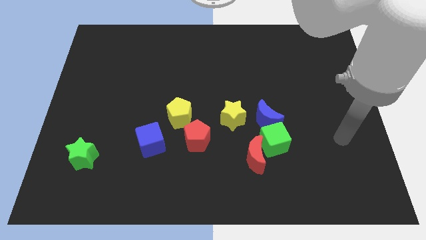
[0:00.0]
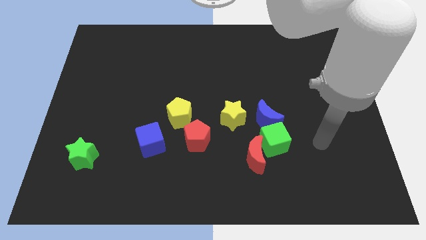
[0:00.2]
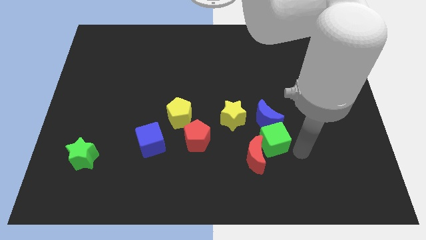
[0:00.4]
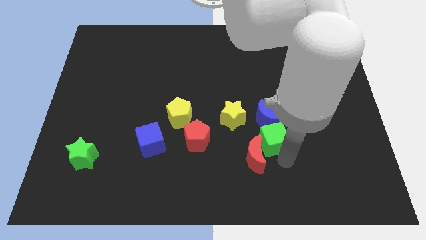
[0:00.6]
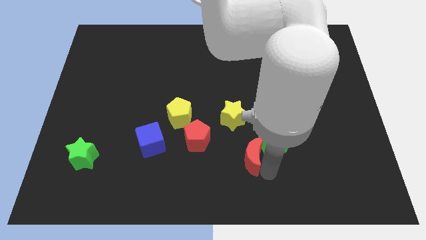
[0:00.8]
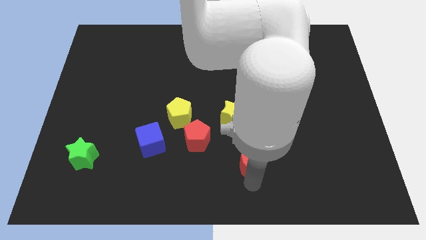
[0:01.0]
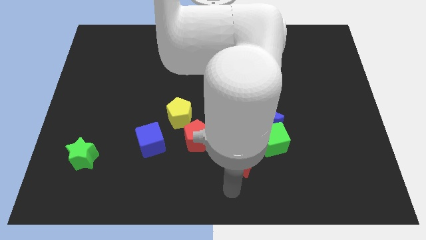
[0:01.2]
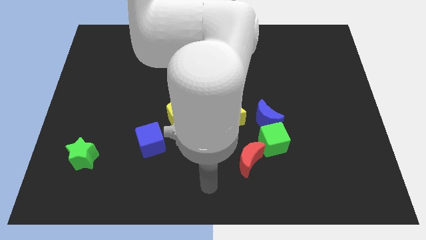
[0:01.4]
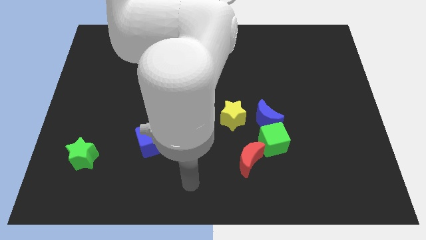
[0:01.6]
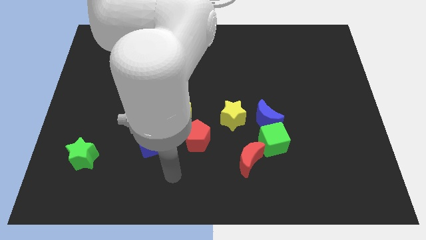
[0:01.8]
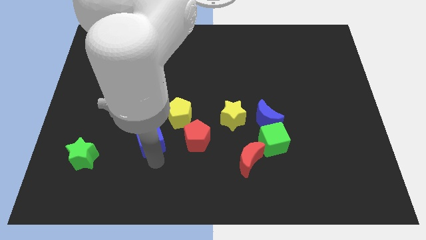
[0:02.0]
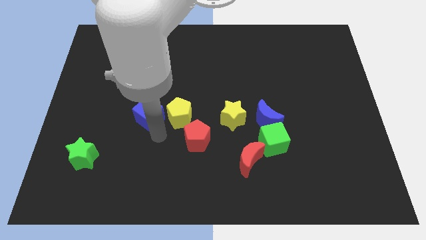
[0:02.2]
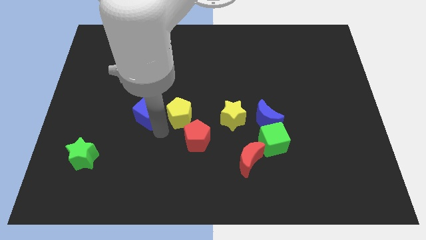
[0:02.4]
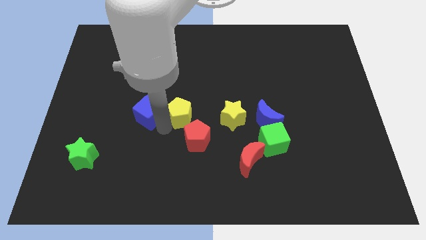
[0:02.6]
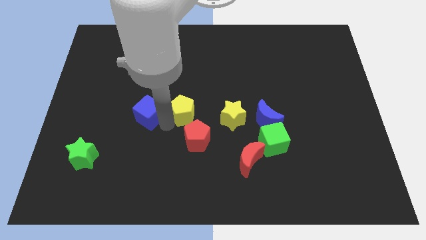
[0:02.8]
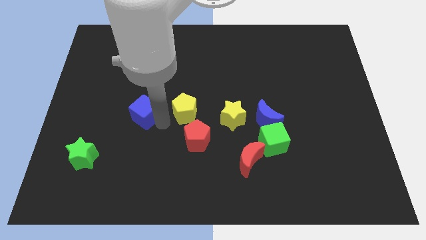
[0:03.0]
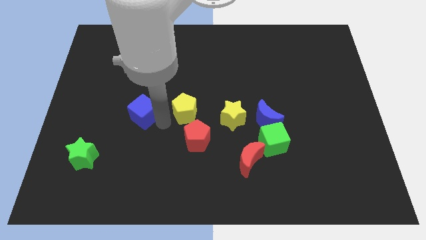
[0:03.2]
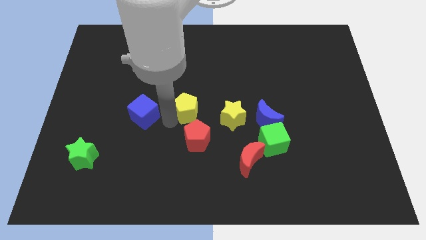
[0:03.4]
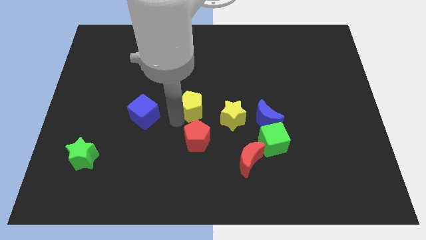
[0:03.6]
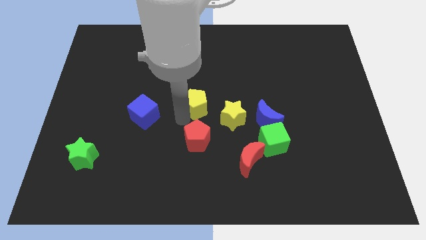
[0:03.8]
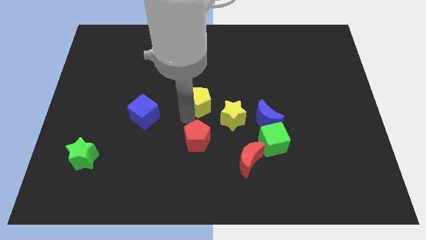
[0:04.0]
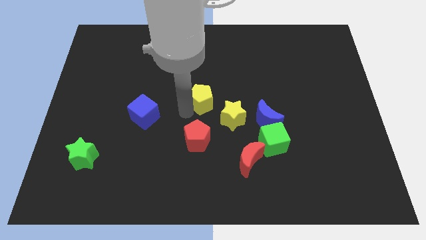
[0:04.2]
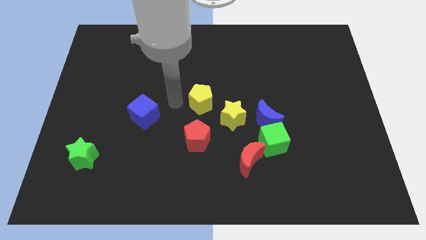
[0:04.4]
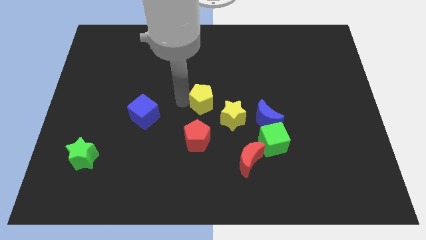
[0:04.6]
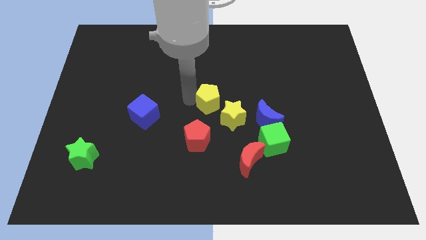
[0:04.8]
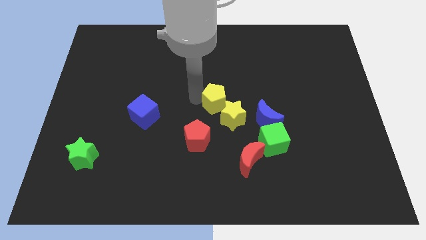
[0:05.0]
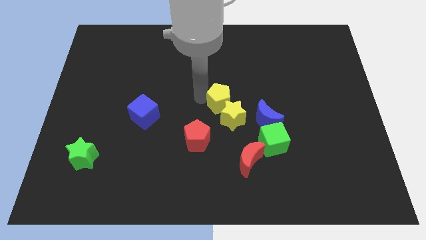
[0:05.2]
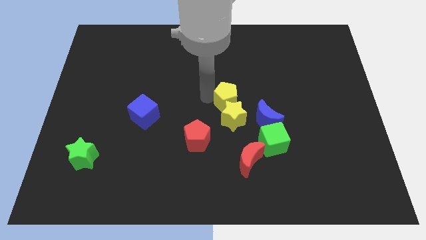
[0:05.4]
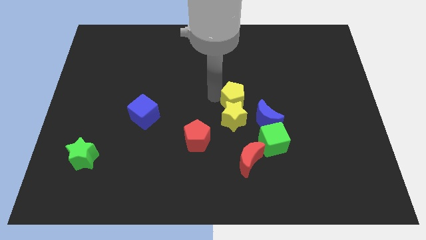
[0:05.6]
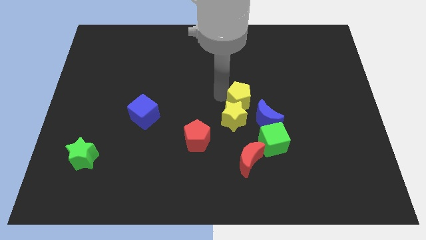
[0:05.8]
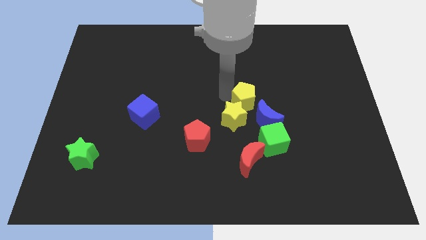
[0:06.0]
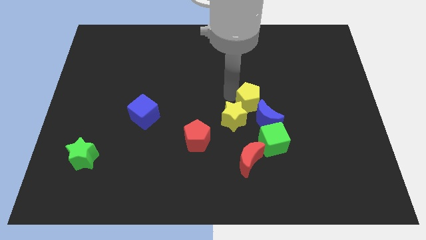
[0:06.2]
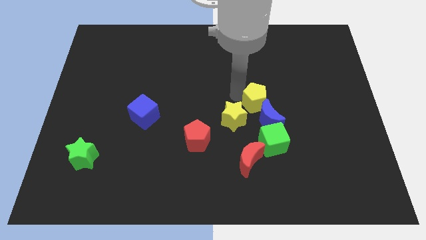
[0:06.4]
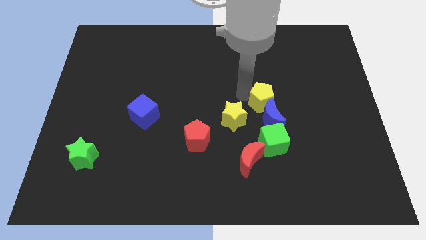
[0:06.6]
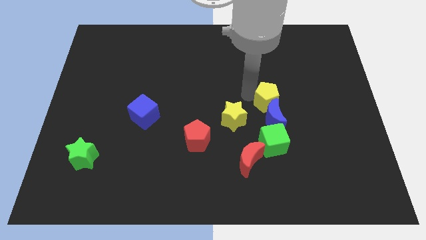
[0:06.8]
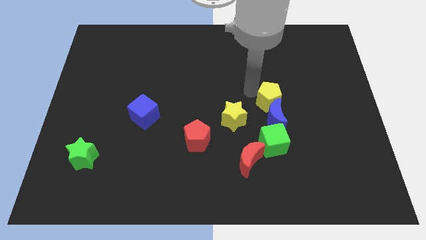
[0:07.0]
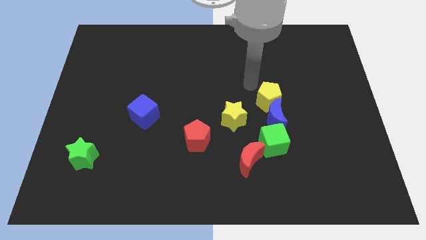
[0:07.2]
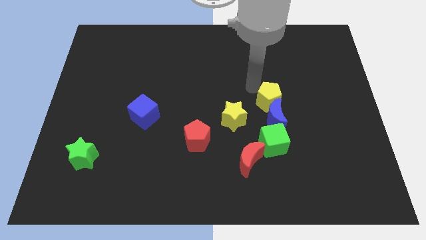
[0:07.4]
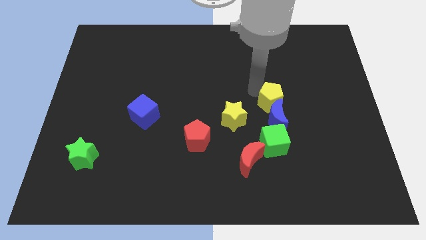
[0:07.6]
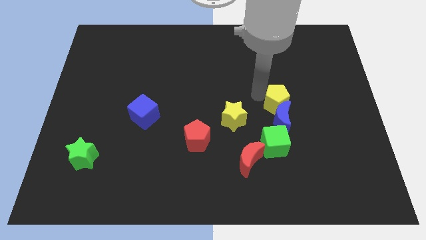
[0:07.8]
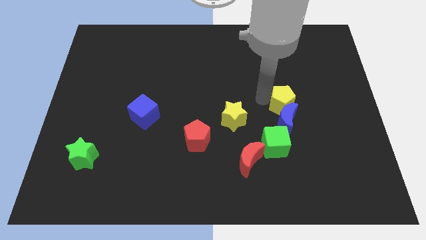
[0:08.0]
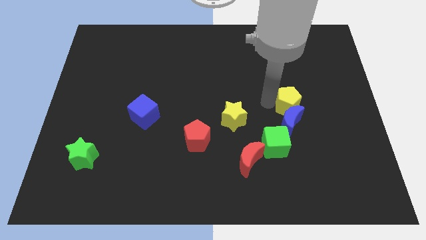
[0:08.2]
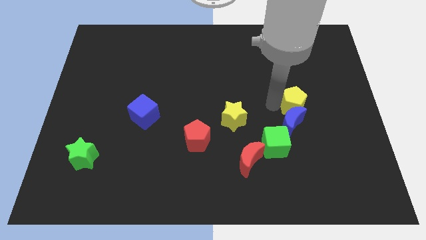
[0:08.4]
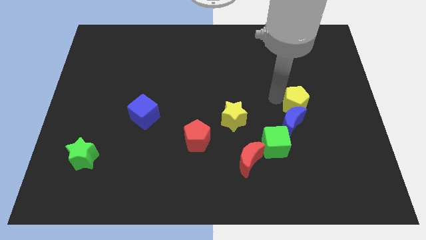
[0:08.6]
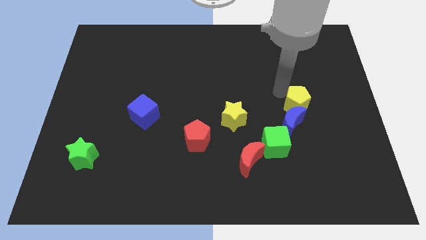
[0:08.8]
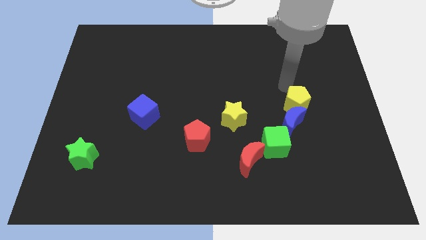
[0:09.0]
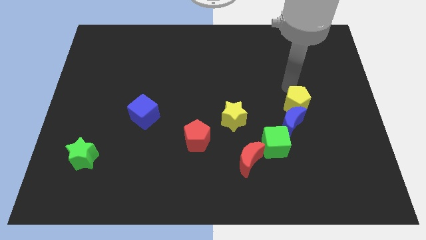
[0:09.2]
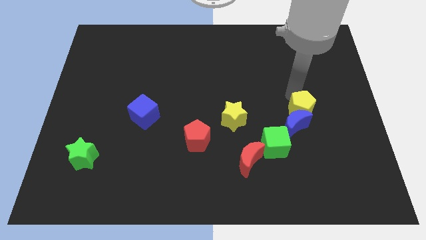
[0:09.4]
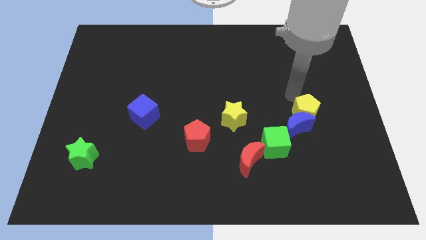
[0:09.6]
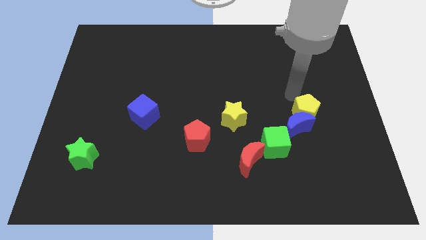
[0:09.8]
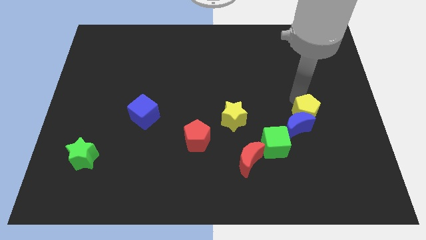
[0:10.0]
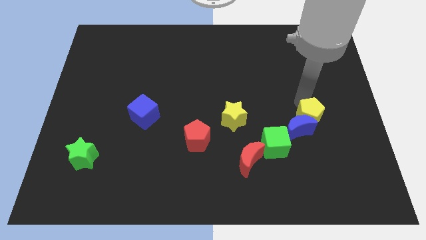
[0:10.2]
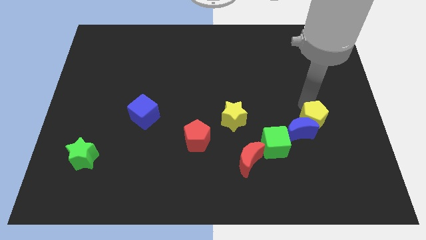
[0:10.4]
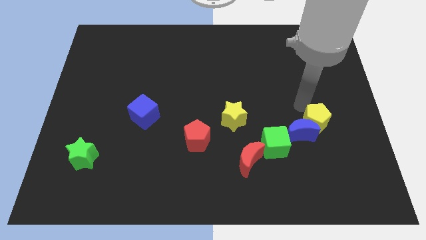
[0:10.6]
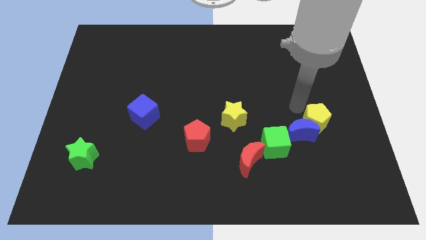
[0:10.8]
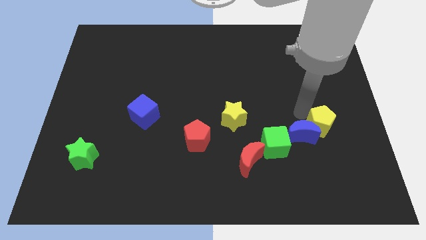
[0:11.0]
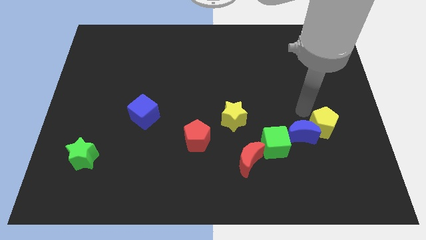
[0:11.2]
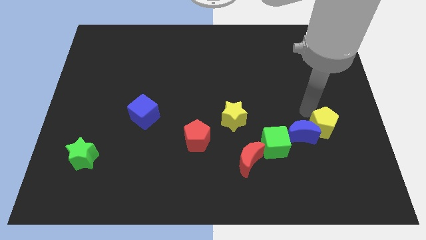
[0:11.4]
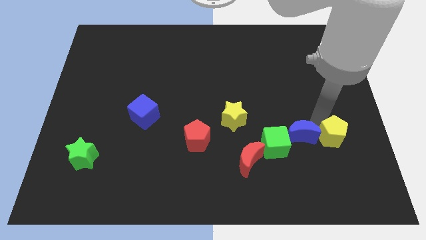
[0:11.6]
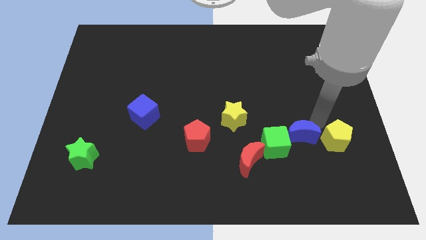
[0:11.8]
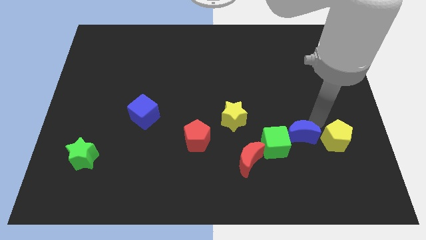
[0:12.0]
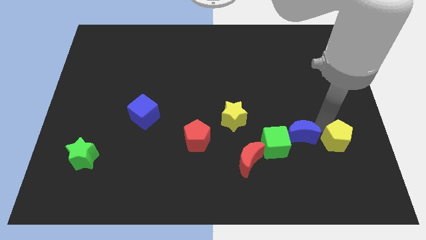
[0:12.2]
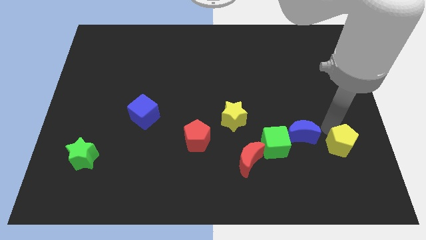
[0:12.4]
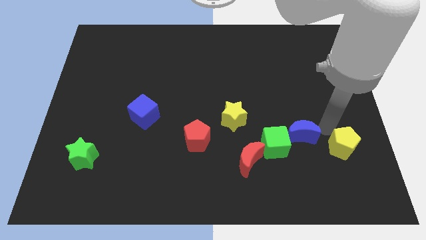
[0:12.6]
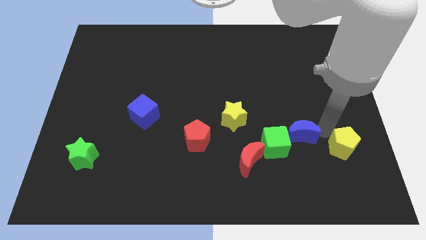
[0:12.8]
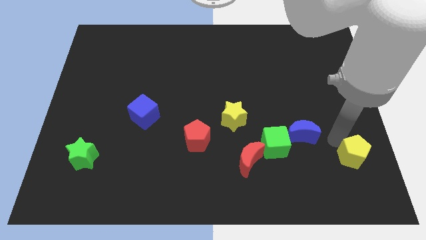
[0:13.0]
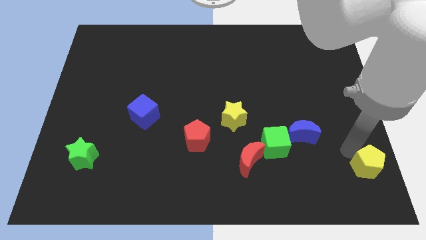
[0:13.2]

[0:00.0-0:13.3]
push the yellow pentagon to the bottom right corner

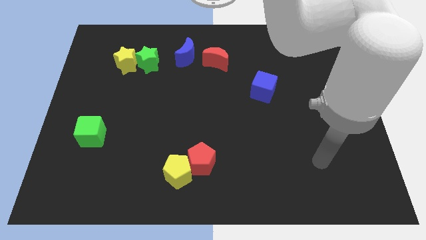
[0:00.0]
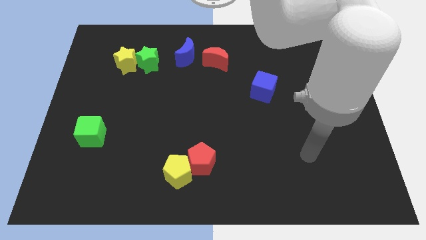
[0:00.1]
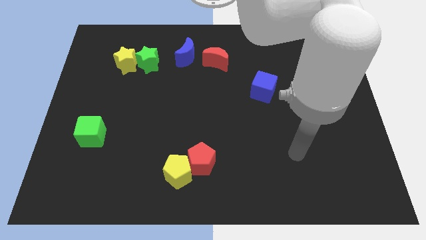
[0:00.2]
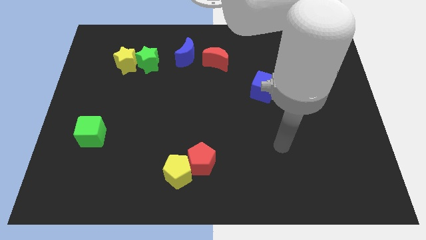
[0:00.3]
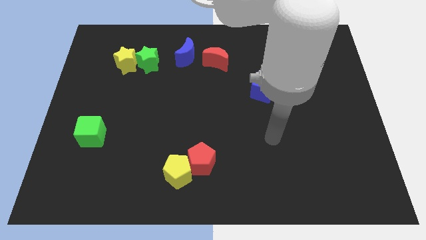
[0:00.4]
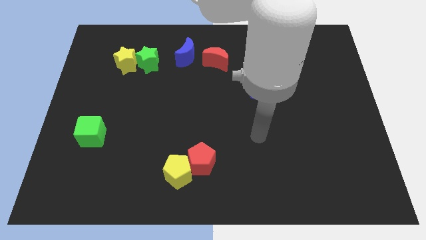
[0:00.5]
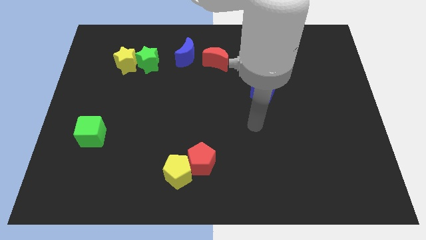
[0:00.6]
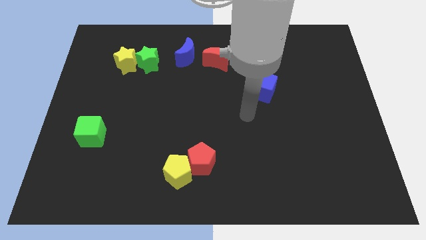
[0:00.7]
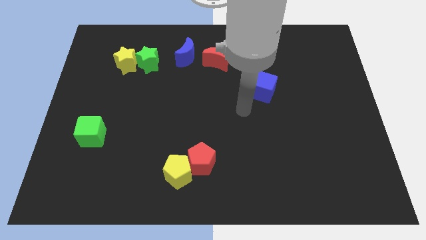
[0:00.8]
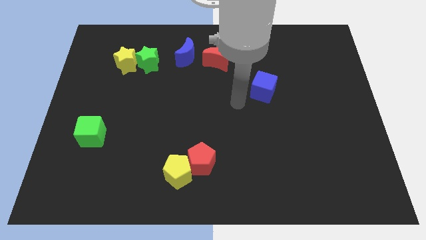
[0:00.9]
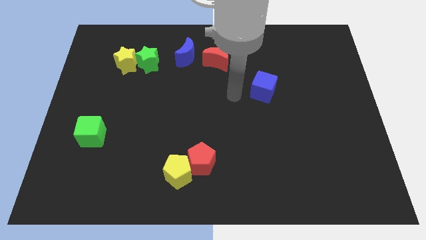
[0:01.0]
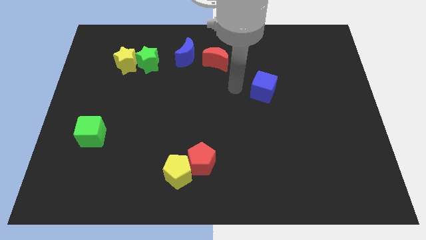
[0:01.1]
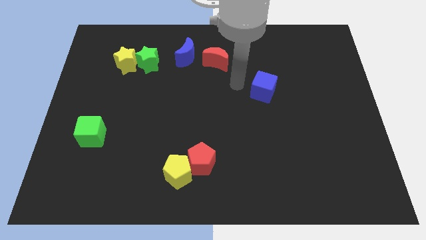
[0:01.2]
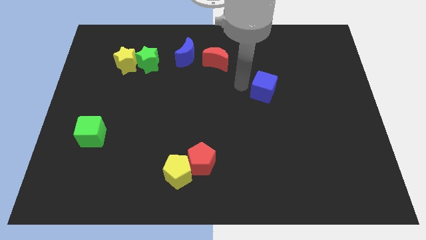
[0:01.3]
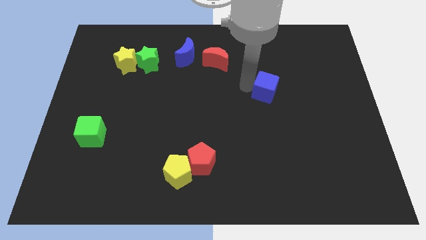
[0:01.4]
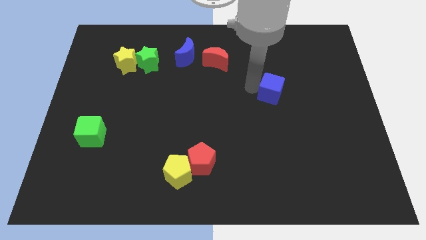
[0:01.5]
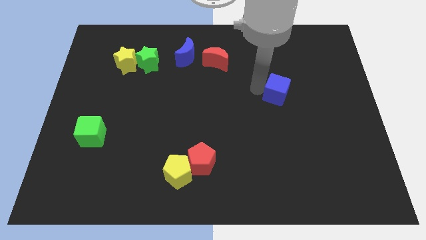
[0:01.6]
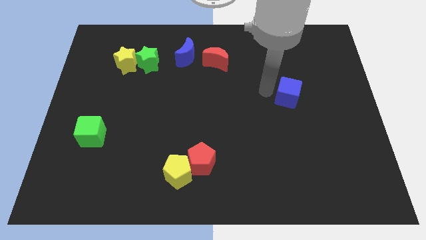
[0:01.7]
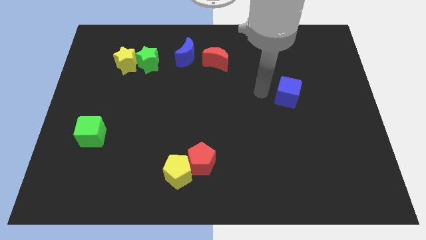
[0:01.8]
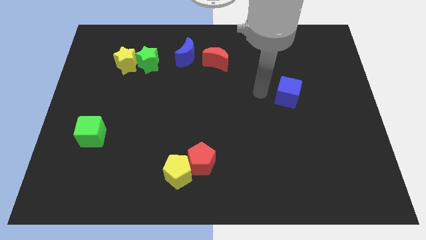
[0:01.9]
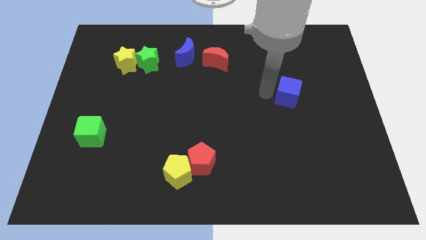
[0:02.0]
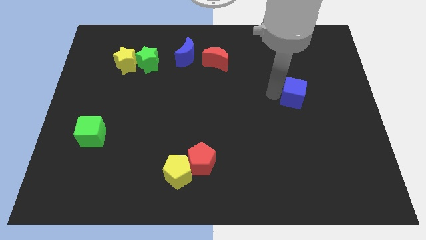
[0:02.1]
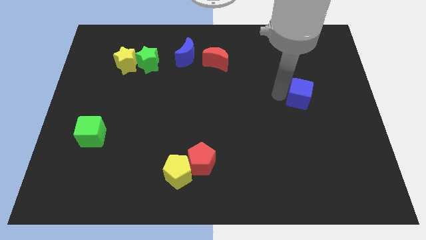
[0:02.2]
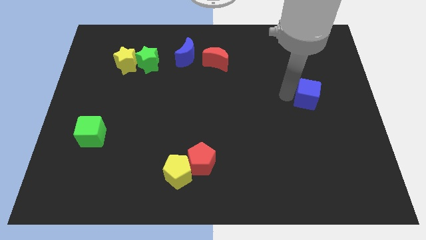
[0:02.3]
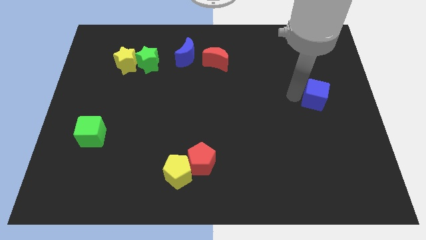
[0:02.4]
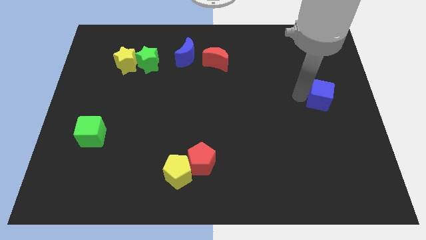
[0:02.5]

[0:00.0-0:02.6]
move the blue cube to the right side of the board
